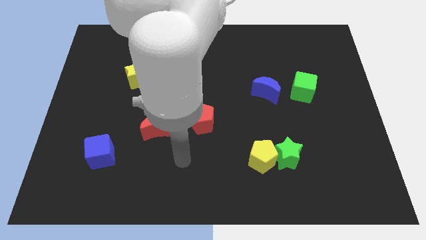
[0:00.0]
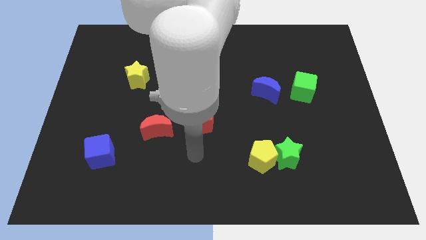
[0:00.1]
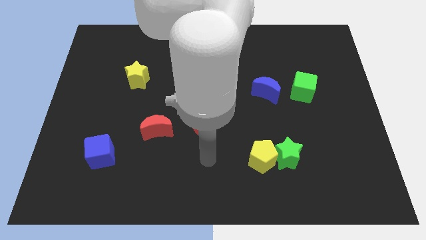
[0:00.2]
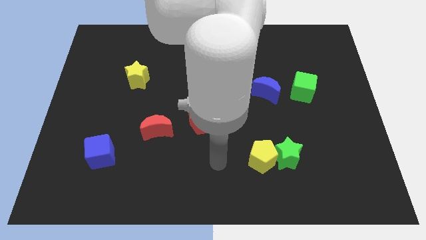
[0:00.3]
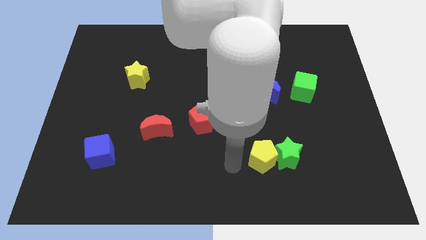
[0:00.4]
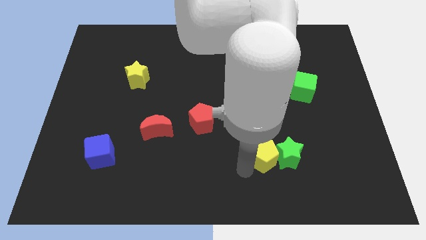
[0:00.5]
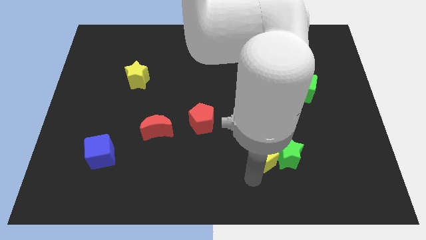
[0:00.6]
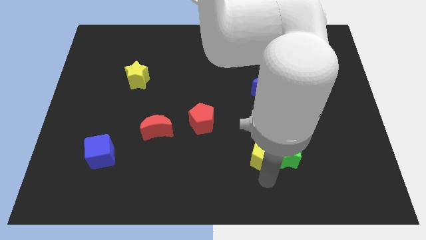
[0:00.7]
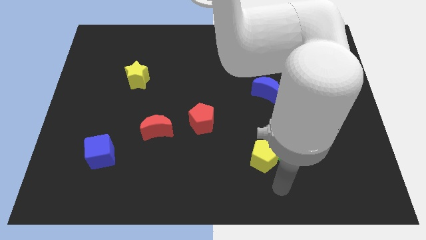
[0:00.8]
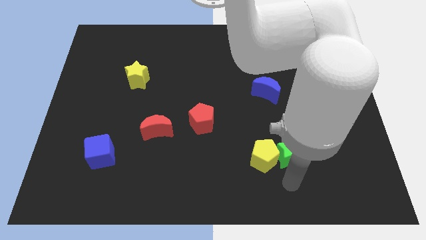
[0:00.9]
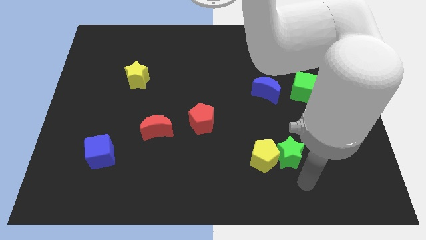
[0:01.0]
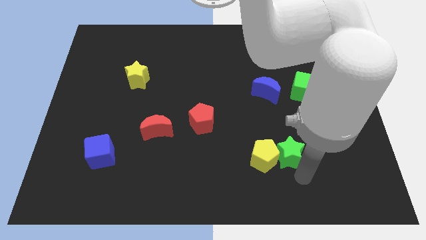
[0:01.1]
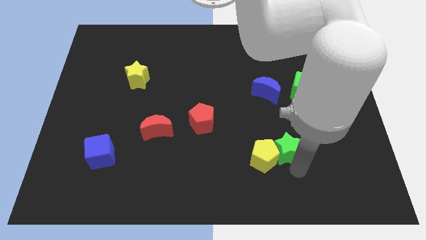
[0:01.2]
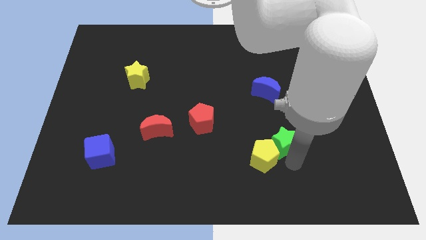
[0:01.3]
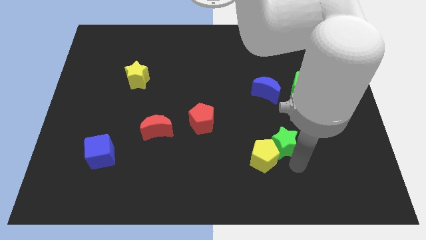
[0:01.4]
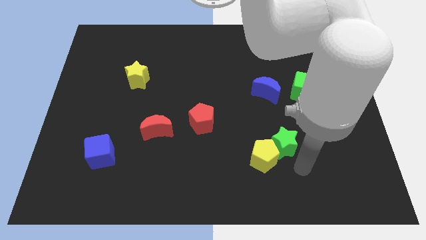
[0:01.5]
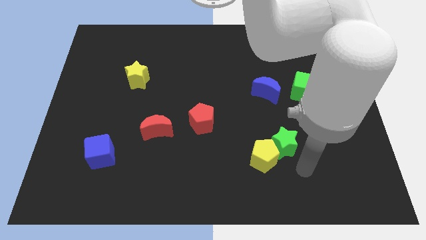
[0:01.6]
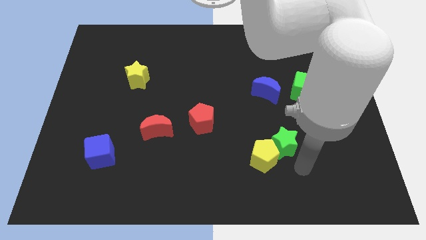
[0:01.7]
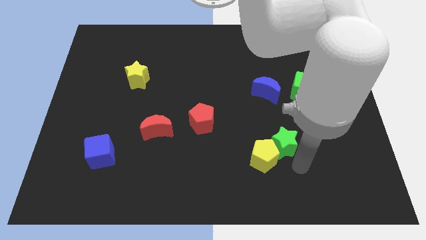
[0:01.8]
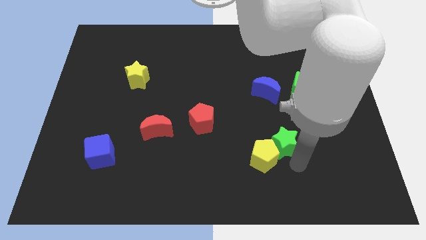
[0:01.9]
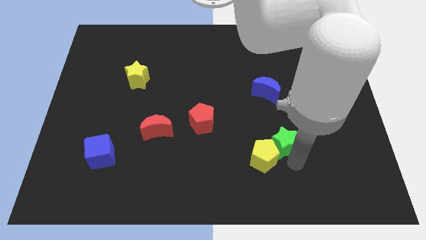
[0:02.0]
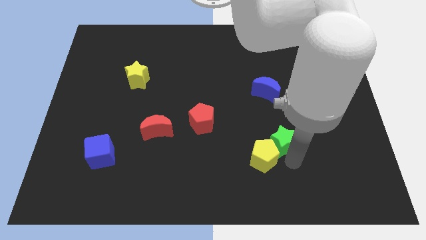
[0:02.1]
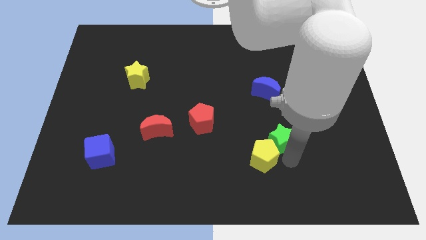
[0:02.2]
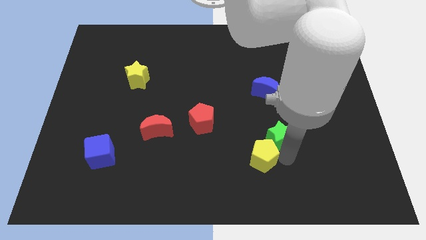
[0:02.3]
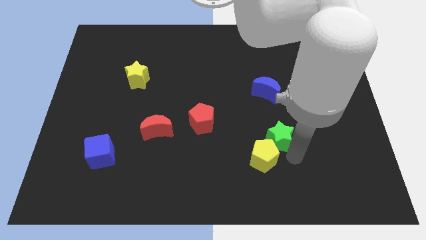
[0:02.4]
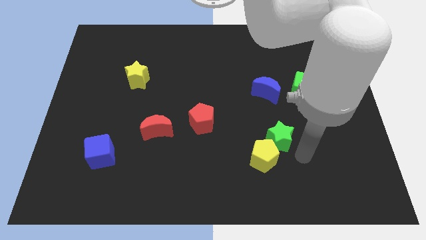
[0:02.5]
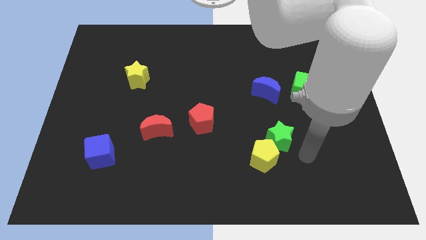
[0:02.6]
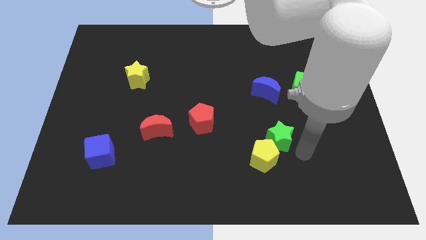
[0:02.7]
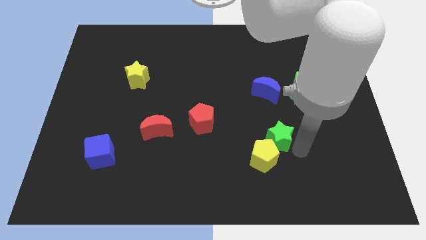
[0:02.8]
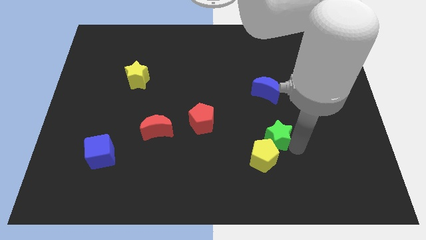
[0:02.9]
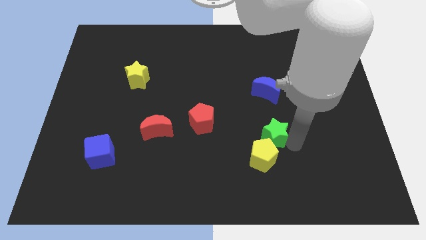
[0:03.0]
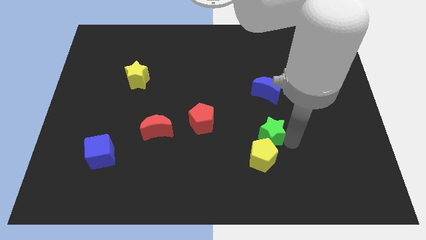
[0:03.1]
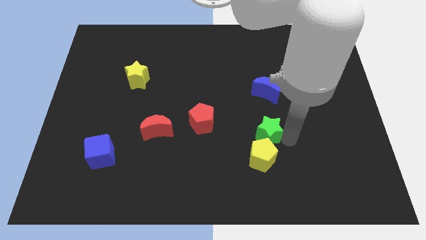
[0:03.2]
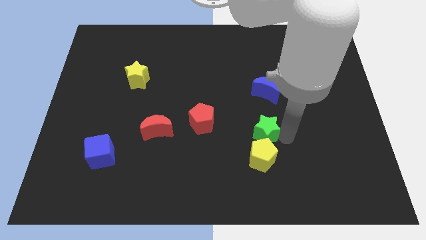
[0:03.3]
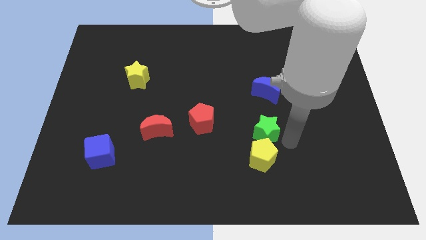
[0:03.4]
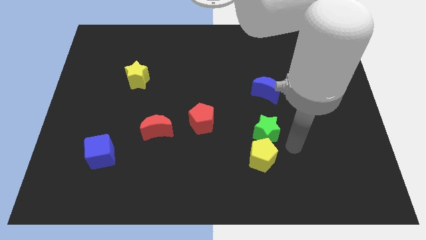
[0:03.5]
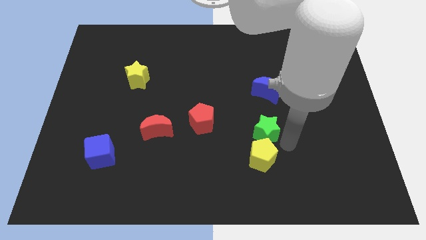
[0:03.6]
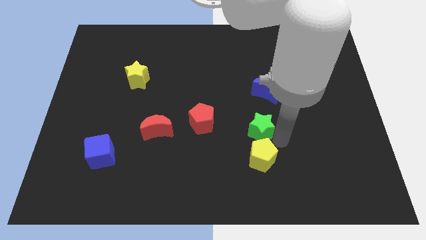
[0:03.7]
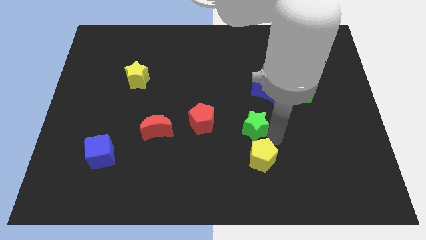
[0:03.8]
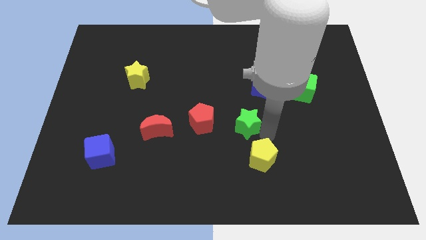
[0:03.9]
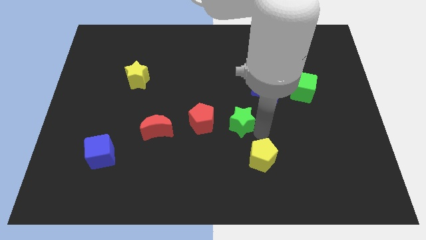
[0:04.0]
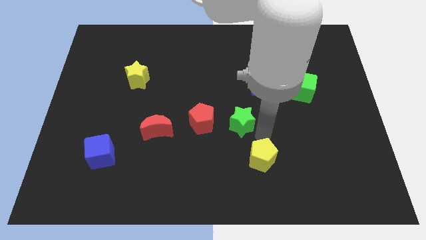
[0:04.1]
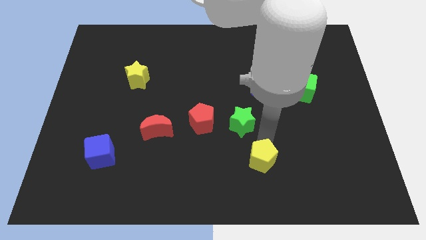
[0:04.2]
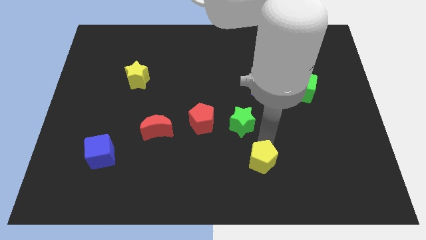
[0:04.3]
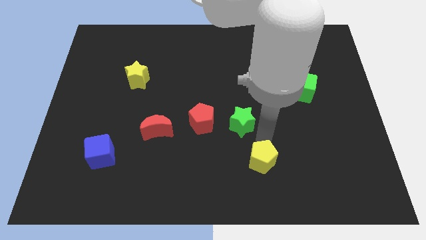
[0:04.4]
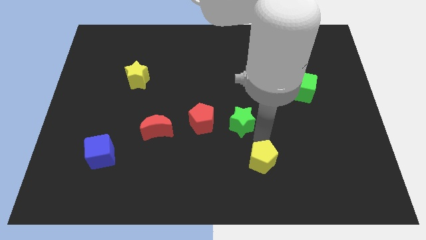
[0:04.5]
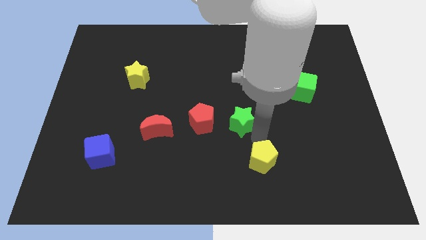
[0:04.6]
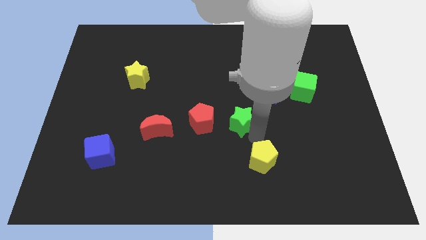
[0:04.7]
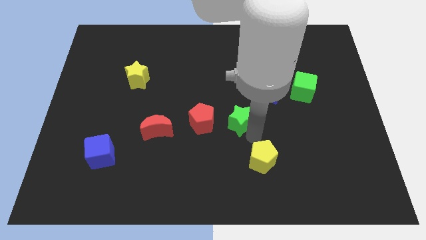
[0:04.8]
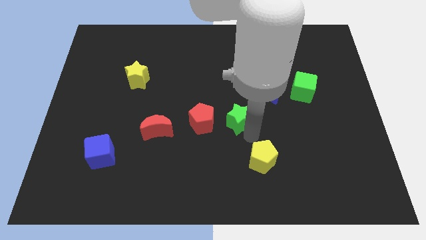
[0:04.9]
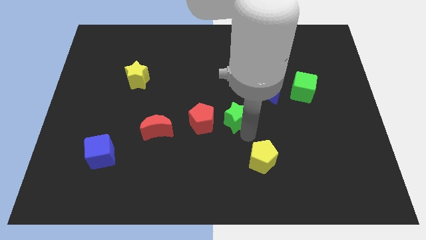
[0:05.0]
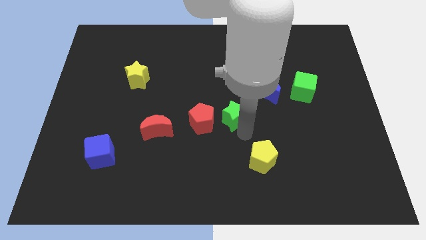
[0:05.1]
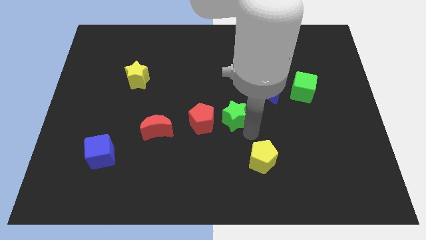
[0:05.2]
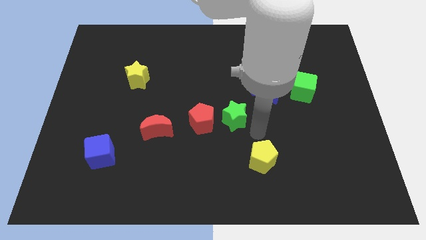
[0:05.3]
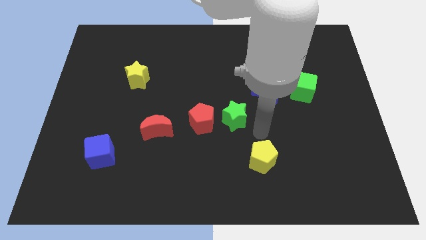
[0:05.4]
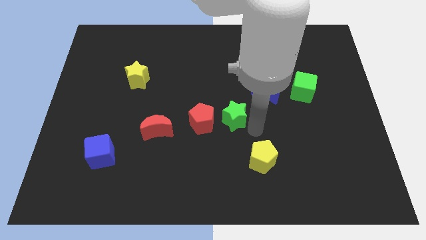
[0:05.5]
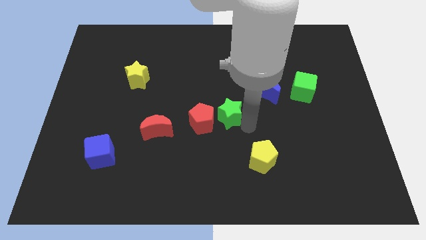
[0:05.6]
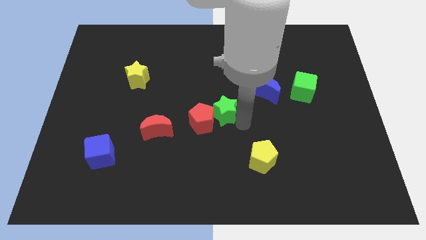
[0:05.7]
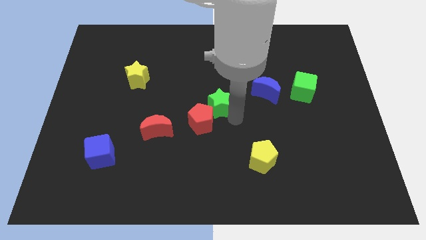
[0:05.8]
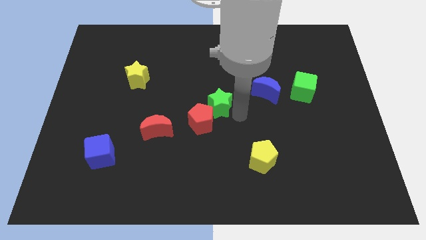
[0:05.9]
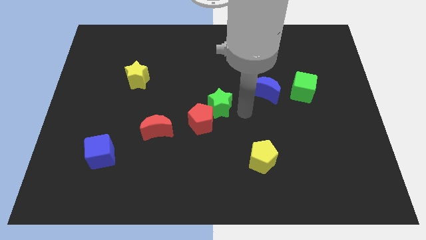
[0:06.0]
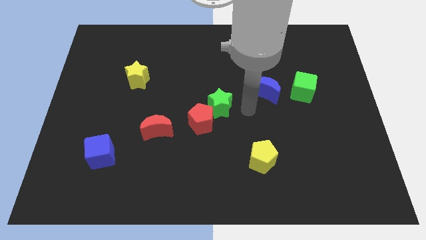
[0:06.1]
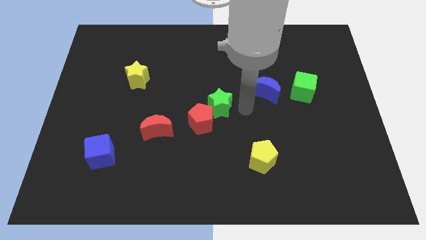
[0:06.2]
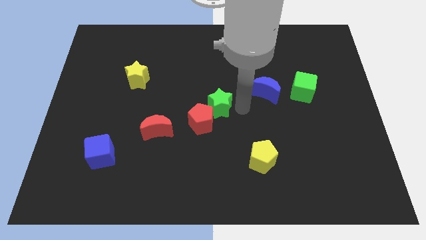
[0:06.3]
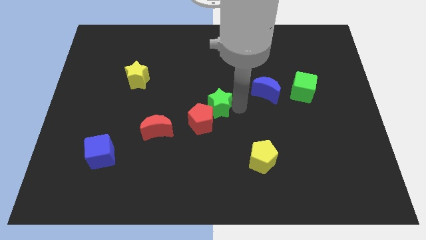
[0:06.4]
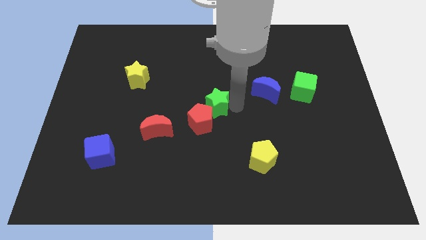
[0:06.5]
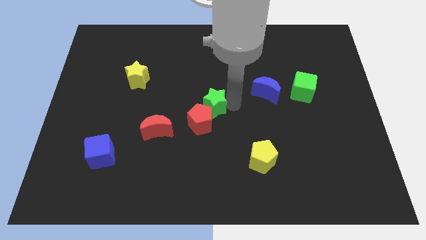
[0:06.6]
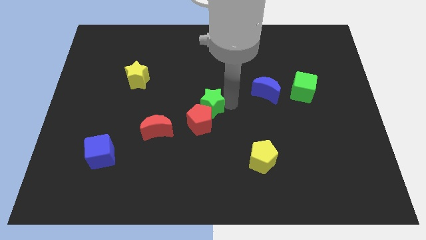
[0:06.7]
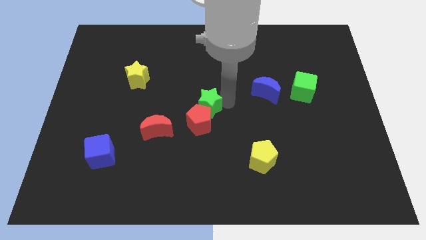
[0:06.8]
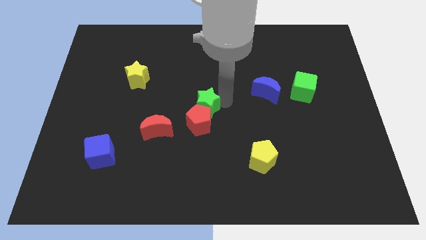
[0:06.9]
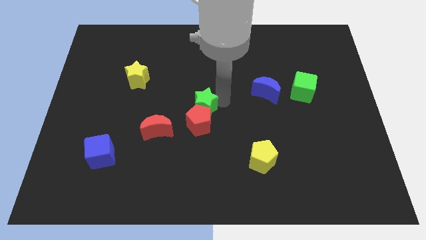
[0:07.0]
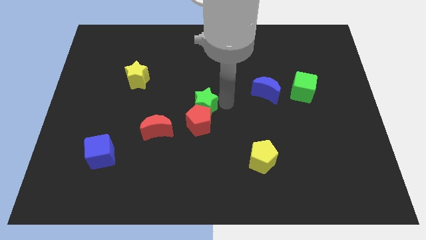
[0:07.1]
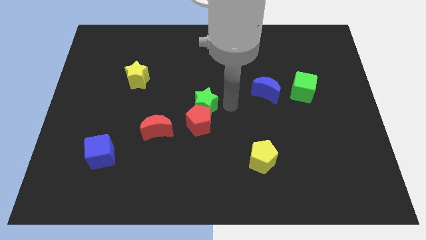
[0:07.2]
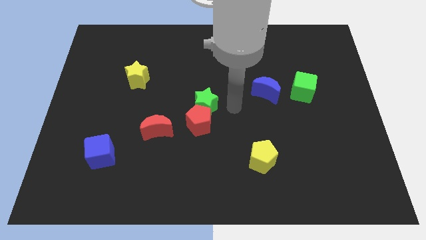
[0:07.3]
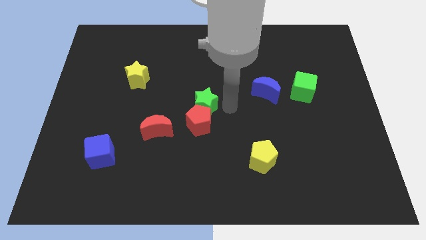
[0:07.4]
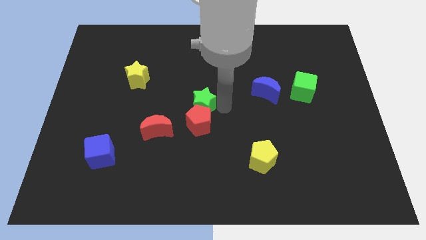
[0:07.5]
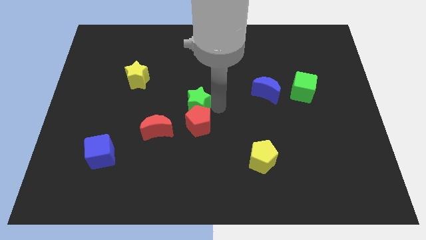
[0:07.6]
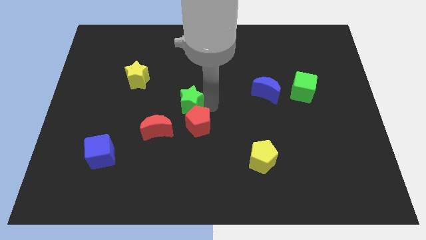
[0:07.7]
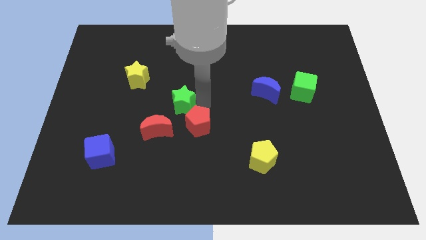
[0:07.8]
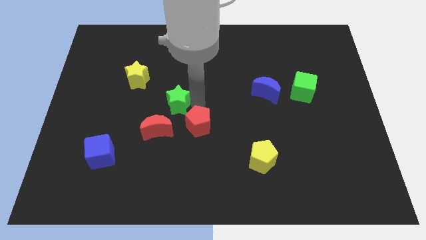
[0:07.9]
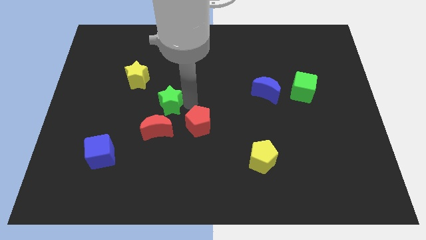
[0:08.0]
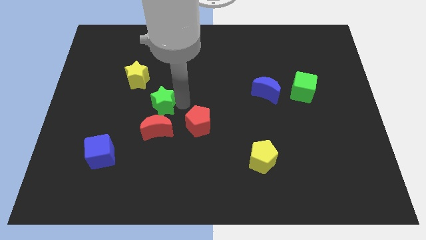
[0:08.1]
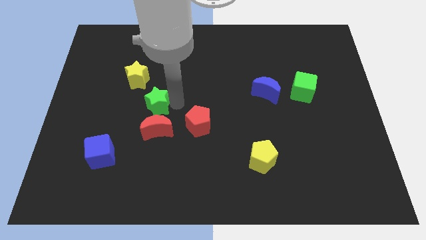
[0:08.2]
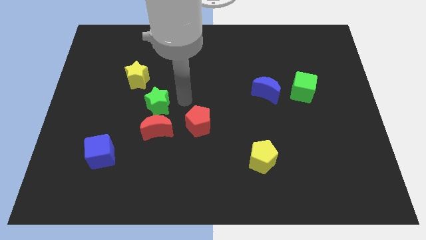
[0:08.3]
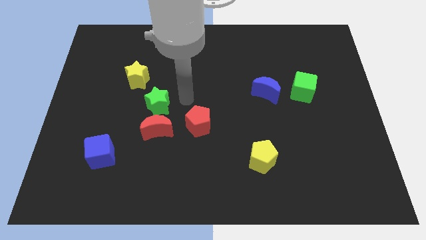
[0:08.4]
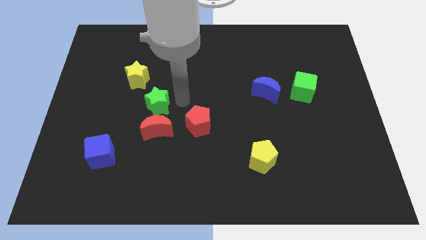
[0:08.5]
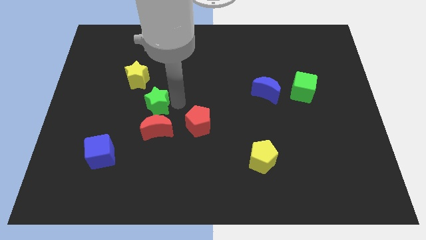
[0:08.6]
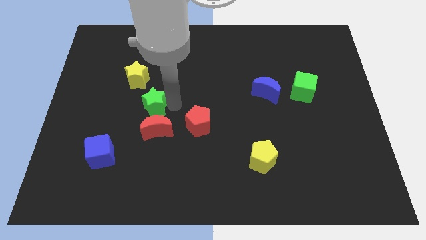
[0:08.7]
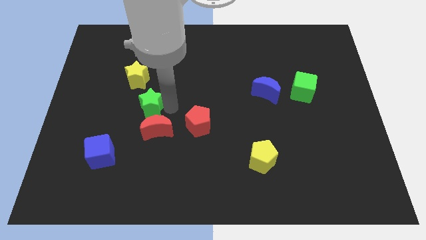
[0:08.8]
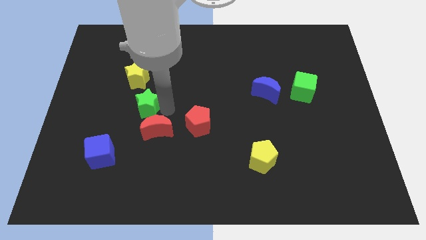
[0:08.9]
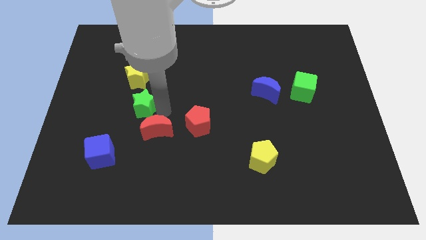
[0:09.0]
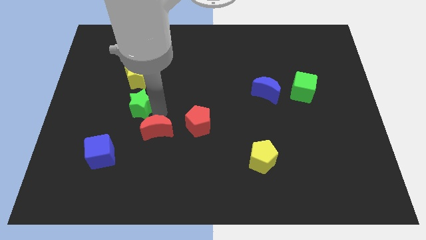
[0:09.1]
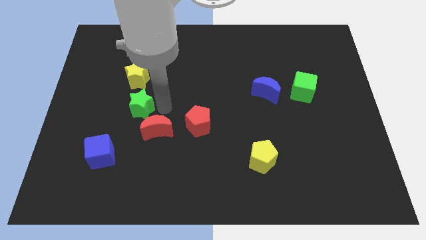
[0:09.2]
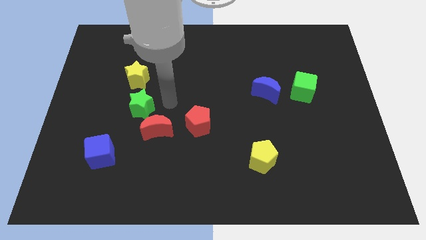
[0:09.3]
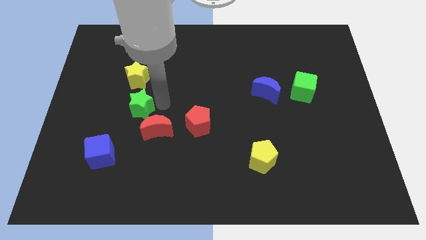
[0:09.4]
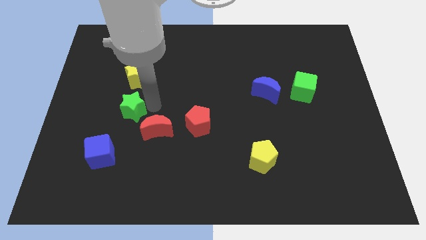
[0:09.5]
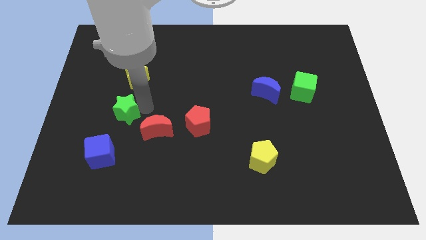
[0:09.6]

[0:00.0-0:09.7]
push the green star to the top side of the blue cube
